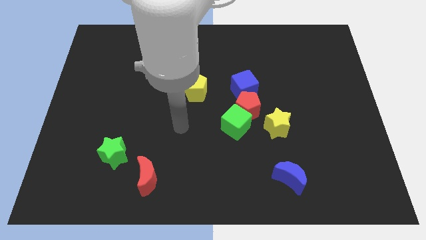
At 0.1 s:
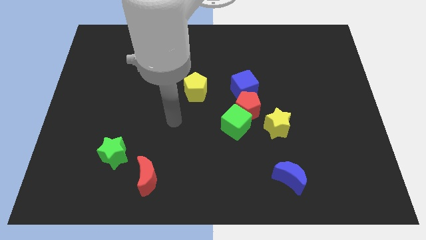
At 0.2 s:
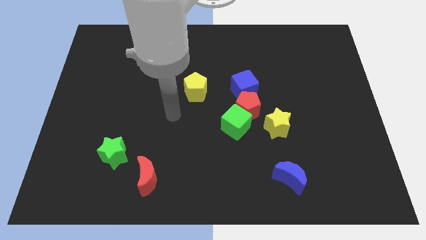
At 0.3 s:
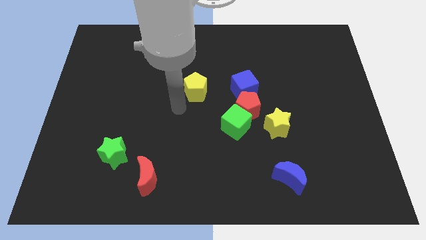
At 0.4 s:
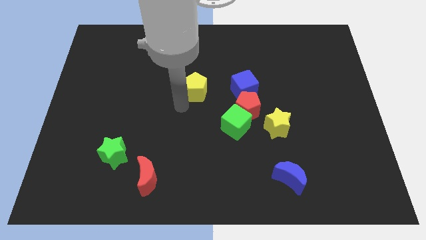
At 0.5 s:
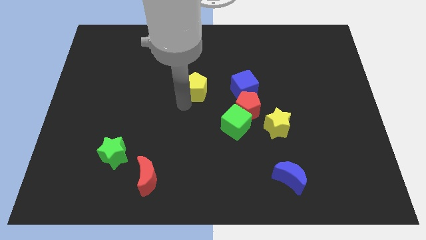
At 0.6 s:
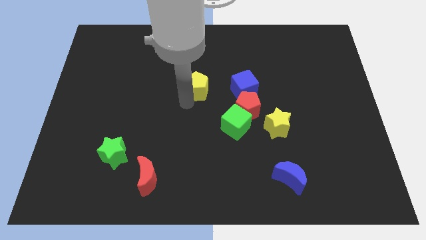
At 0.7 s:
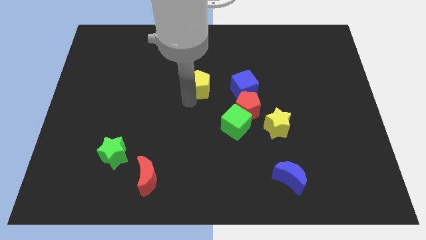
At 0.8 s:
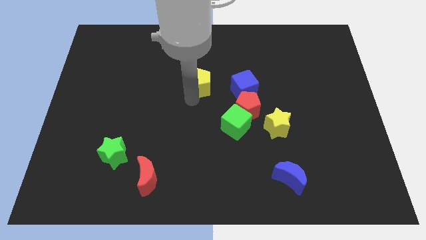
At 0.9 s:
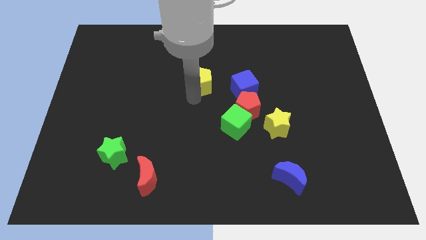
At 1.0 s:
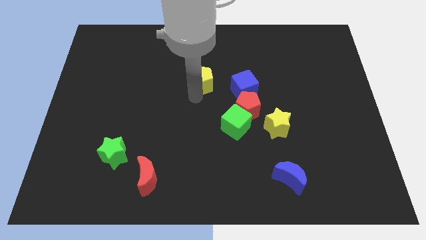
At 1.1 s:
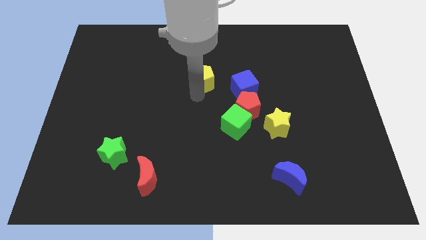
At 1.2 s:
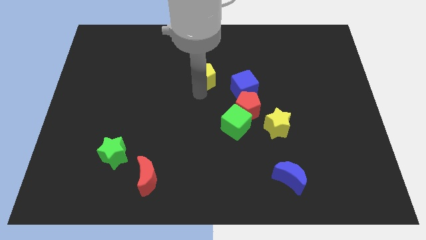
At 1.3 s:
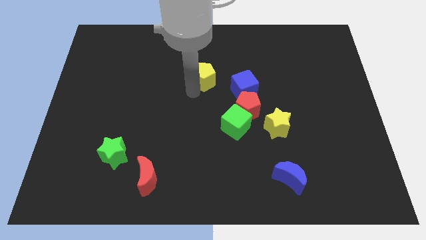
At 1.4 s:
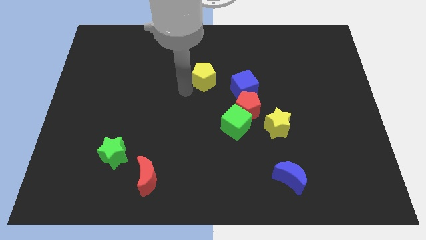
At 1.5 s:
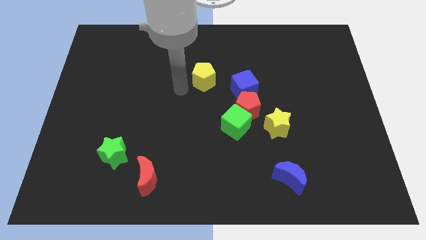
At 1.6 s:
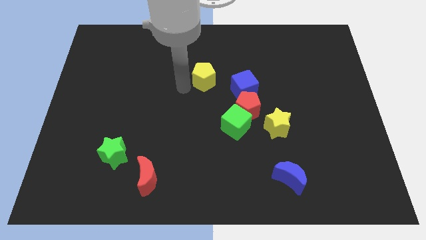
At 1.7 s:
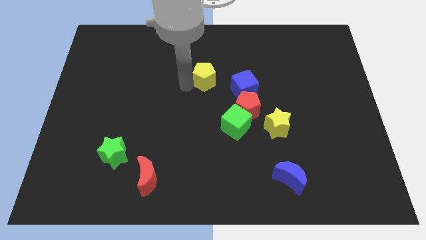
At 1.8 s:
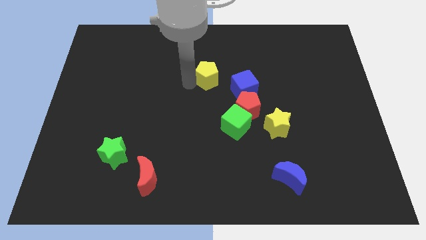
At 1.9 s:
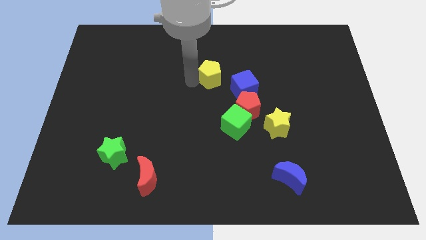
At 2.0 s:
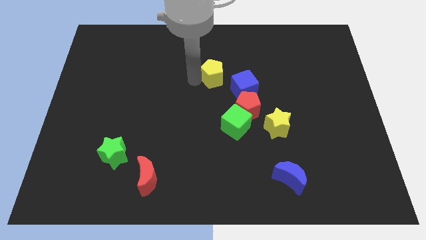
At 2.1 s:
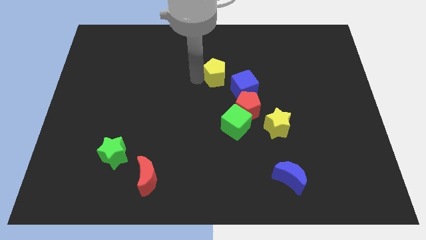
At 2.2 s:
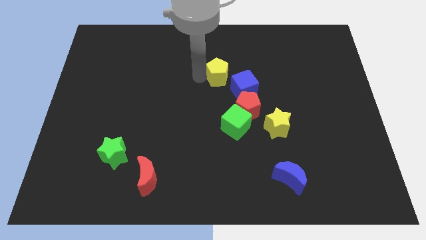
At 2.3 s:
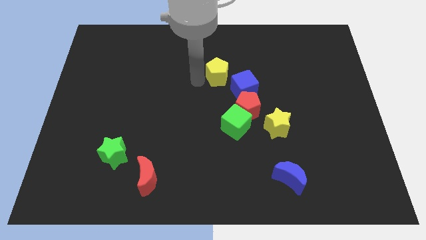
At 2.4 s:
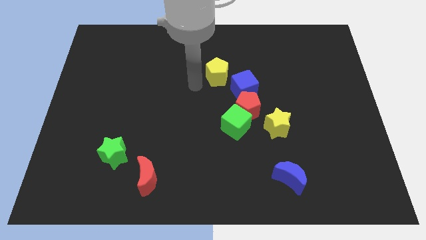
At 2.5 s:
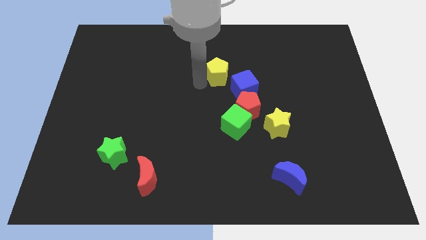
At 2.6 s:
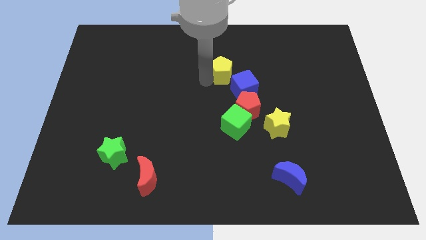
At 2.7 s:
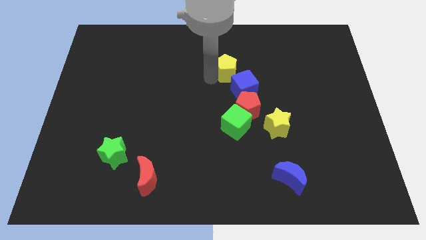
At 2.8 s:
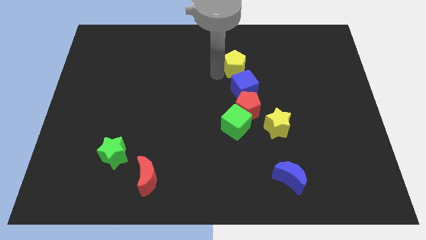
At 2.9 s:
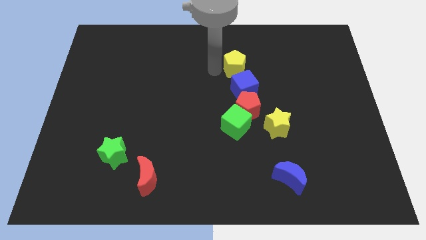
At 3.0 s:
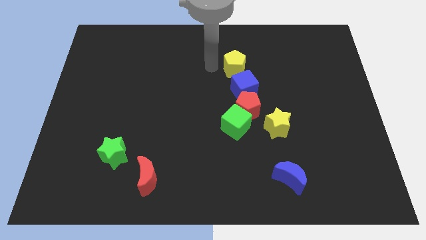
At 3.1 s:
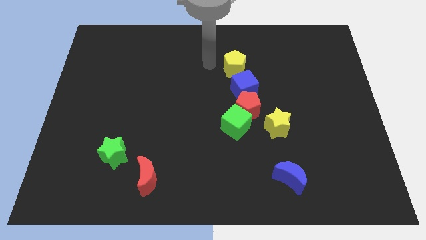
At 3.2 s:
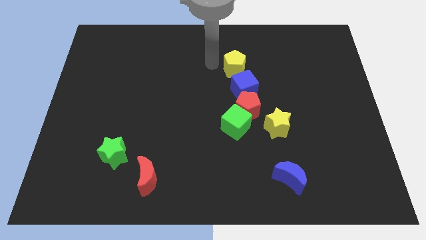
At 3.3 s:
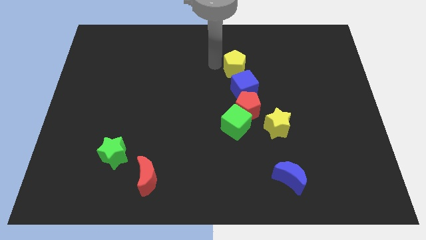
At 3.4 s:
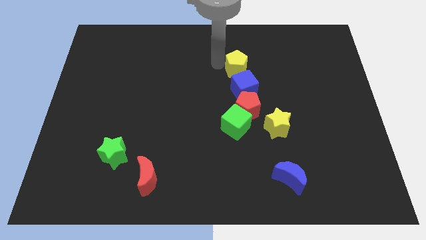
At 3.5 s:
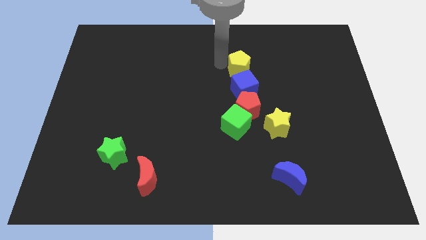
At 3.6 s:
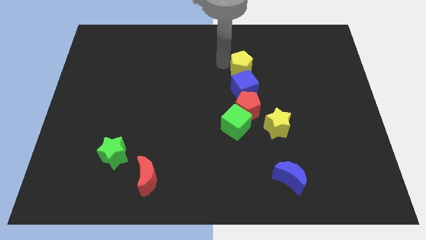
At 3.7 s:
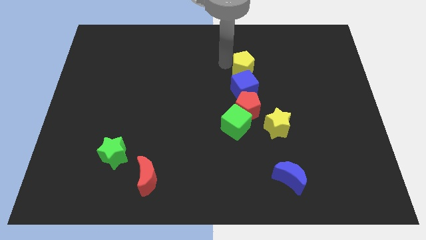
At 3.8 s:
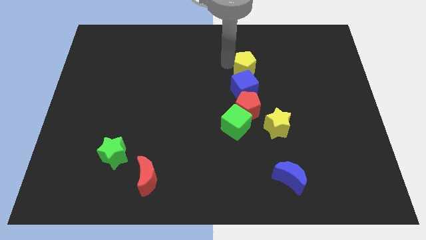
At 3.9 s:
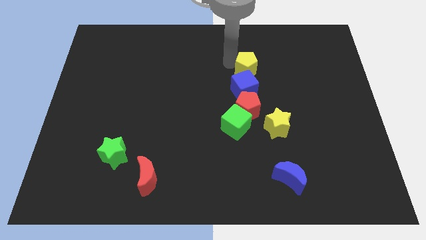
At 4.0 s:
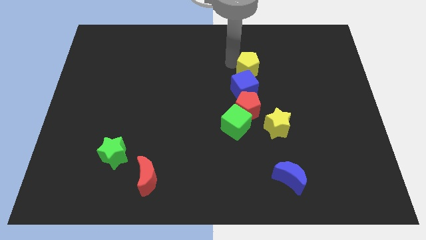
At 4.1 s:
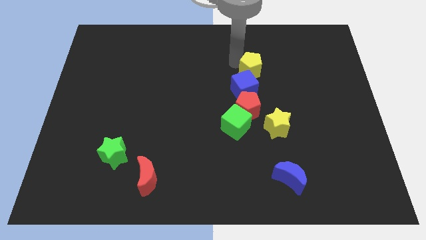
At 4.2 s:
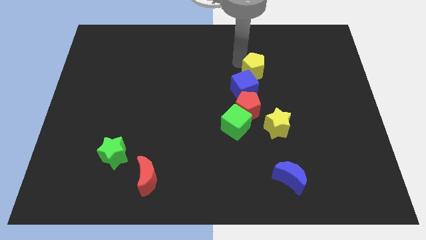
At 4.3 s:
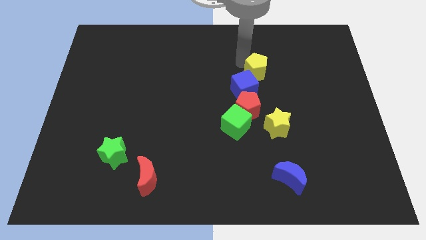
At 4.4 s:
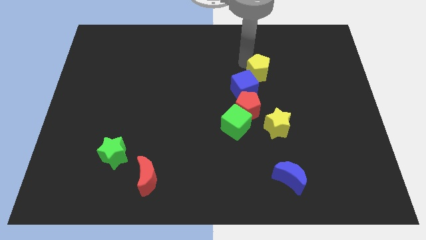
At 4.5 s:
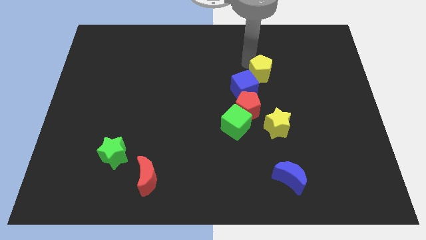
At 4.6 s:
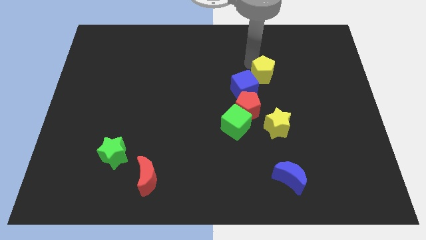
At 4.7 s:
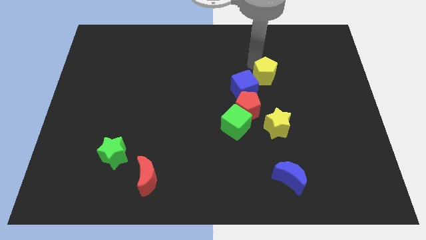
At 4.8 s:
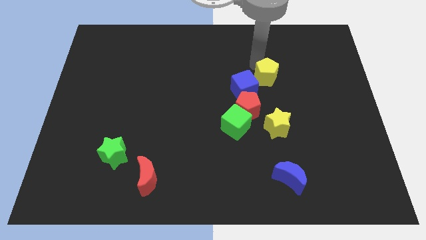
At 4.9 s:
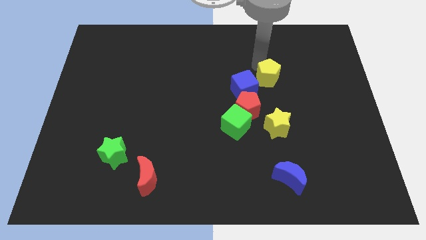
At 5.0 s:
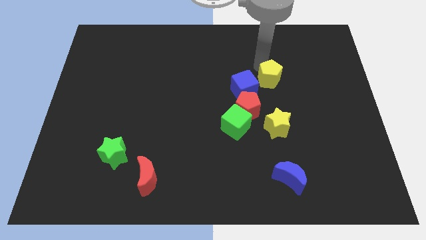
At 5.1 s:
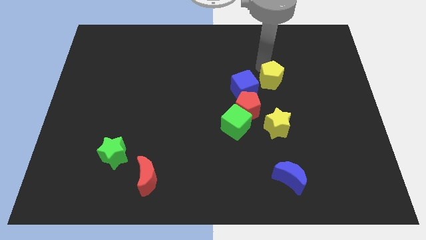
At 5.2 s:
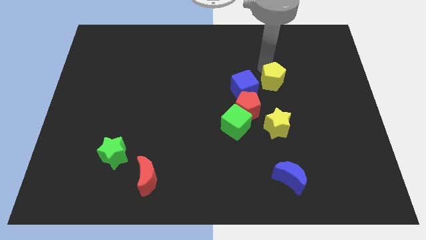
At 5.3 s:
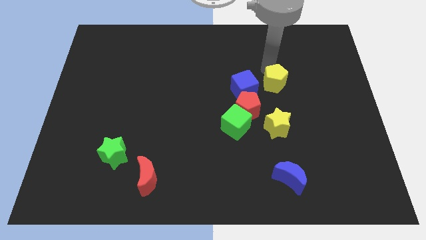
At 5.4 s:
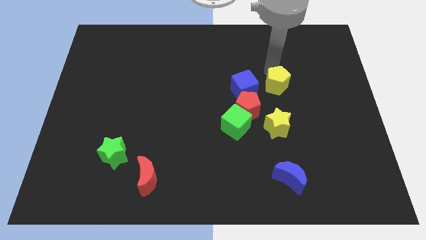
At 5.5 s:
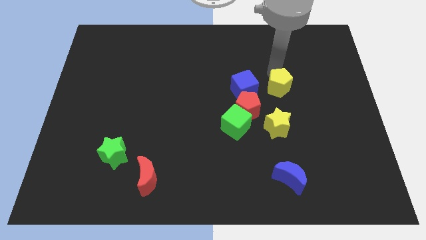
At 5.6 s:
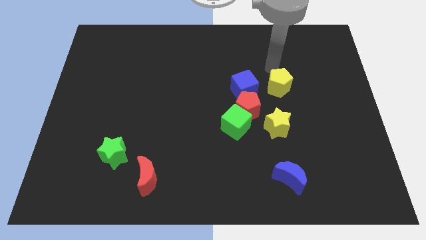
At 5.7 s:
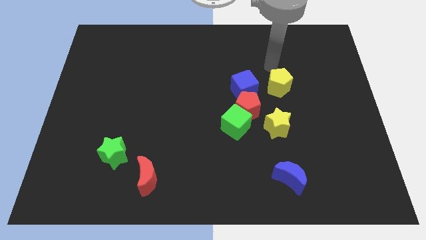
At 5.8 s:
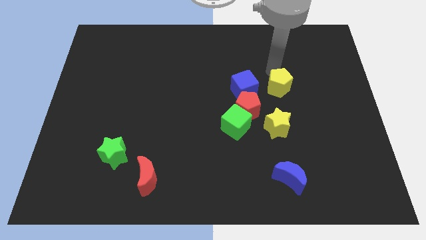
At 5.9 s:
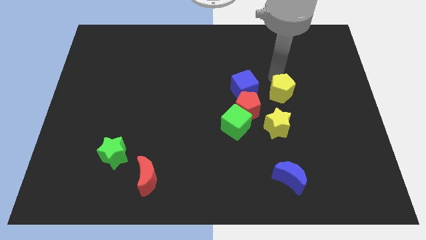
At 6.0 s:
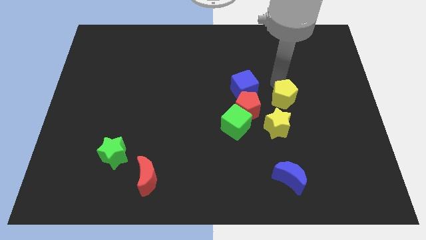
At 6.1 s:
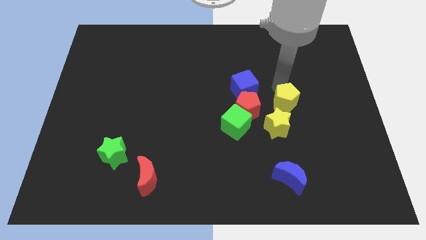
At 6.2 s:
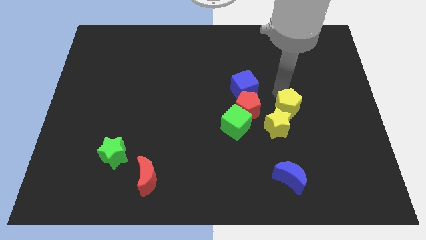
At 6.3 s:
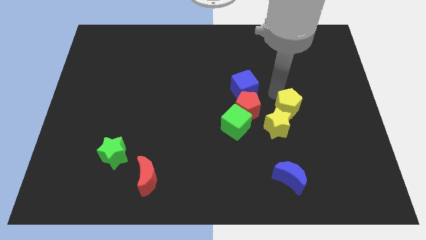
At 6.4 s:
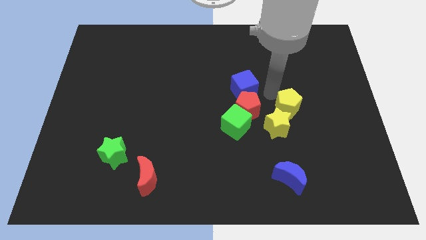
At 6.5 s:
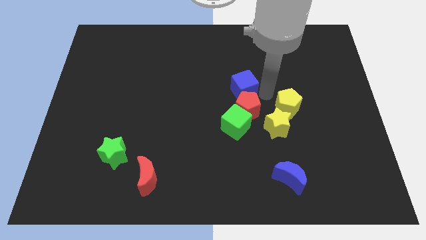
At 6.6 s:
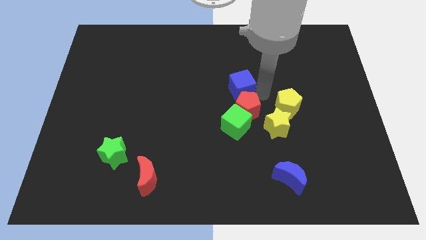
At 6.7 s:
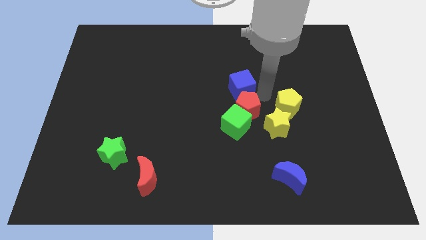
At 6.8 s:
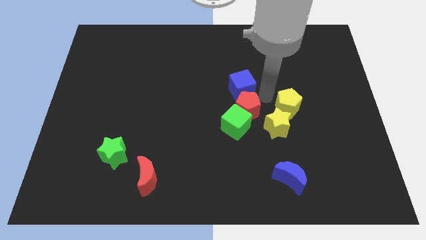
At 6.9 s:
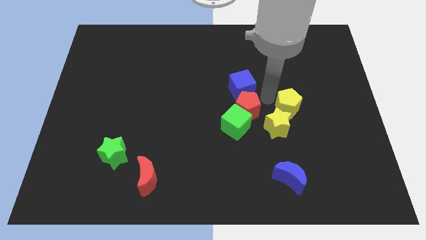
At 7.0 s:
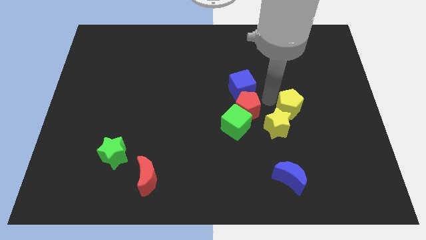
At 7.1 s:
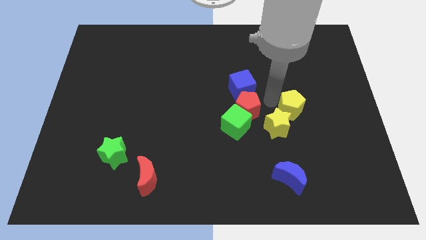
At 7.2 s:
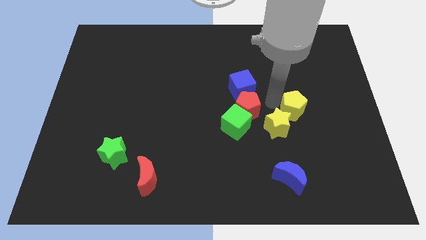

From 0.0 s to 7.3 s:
put the yellow pentagon to the right of the green cube
